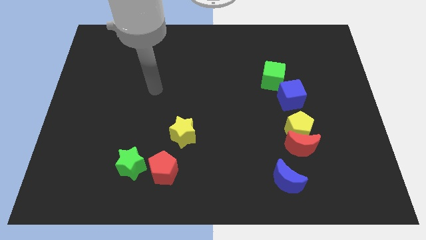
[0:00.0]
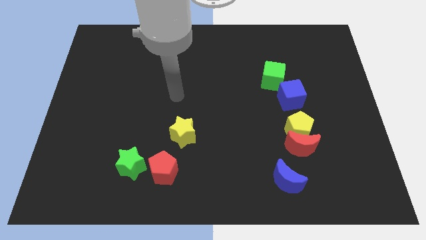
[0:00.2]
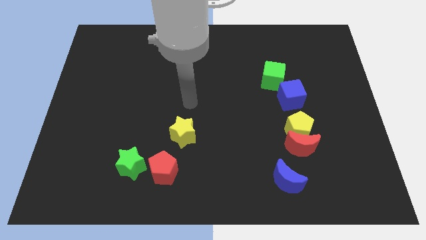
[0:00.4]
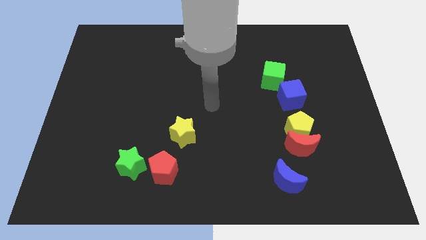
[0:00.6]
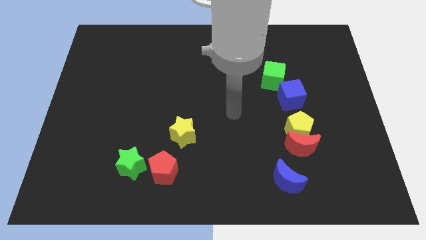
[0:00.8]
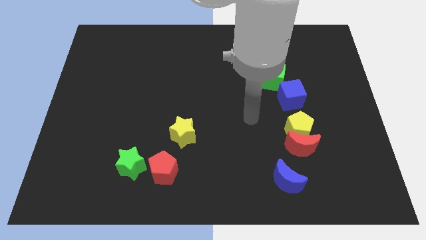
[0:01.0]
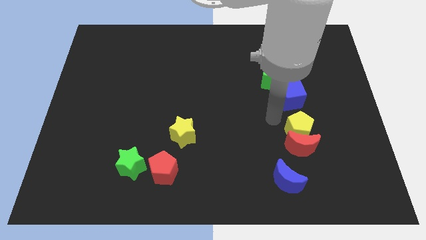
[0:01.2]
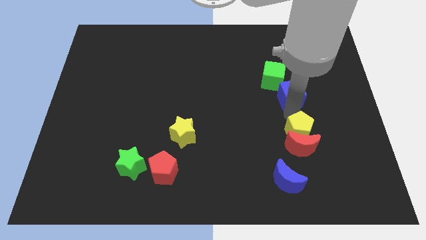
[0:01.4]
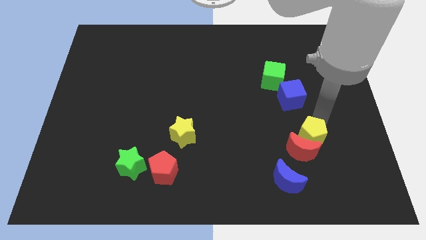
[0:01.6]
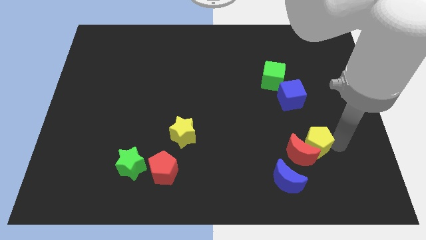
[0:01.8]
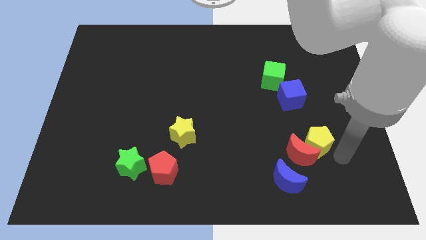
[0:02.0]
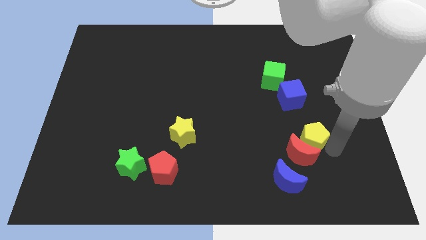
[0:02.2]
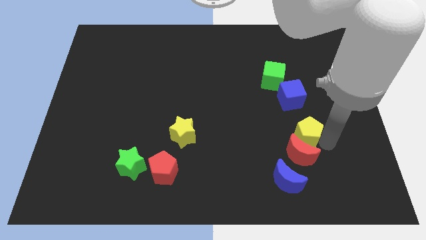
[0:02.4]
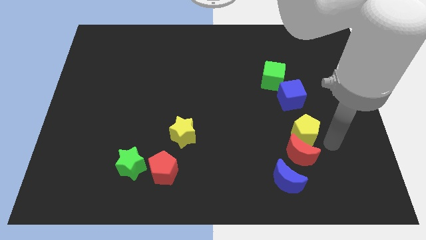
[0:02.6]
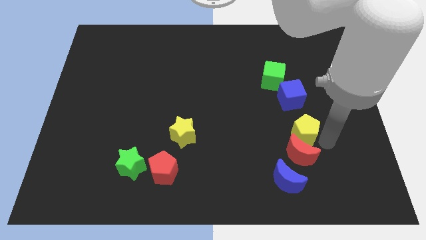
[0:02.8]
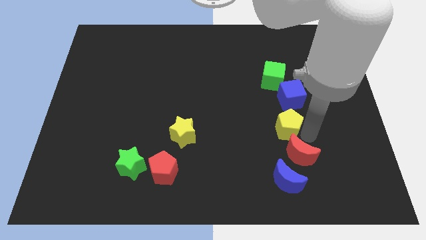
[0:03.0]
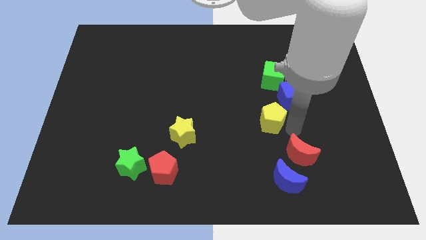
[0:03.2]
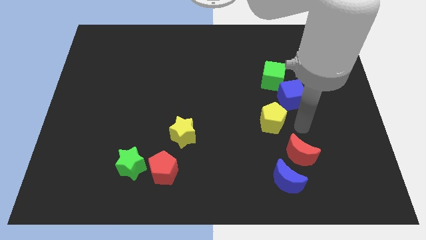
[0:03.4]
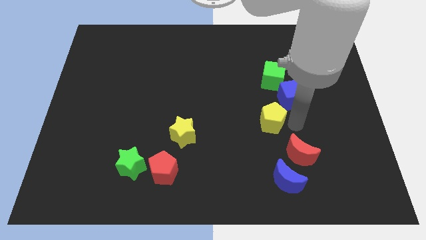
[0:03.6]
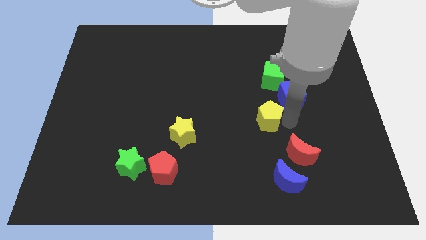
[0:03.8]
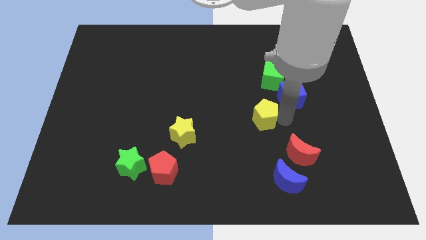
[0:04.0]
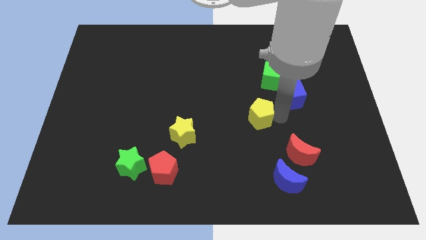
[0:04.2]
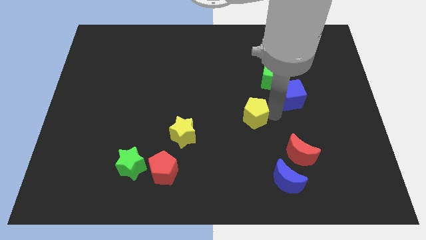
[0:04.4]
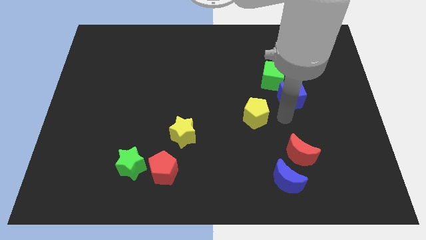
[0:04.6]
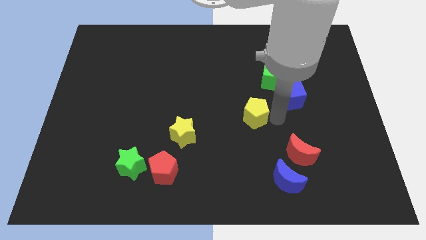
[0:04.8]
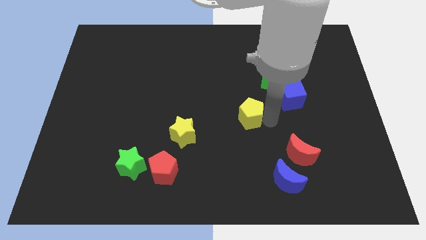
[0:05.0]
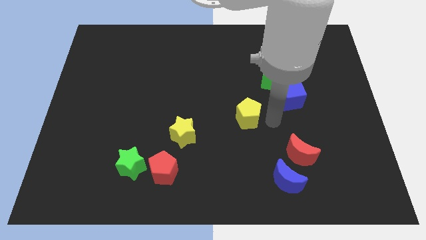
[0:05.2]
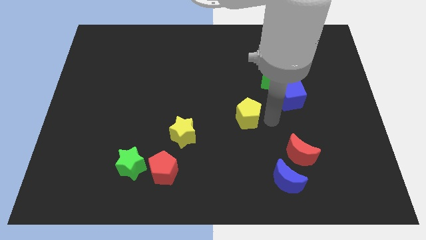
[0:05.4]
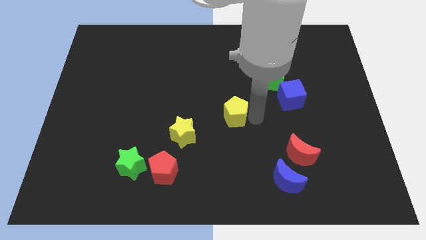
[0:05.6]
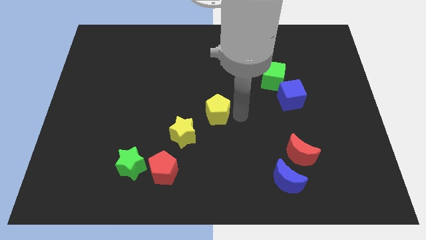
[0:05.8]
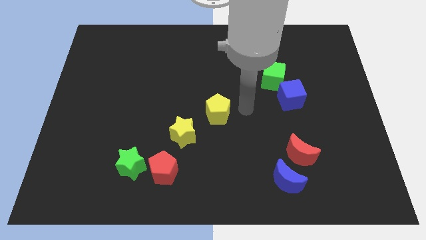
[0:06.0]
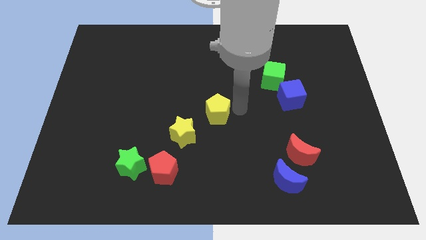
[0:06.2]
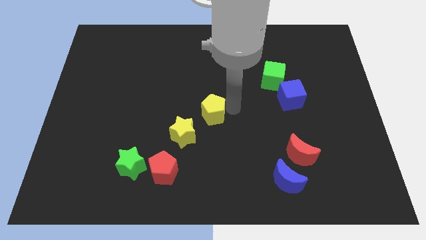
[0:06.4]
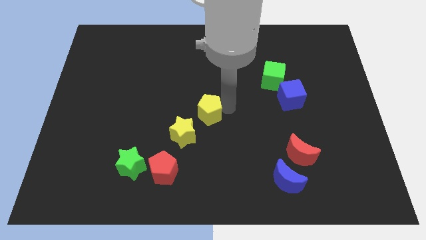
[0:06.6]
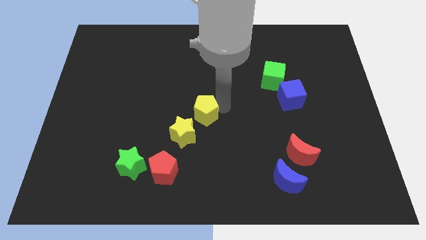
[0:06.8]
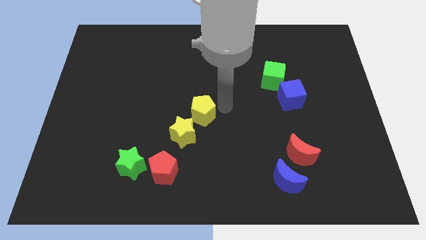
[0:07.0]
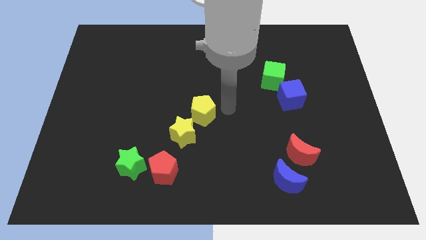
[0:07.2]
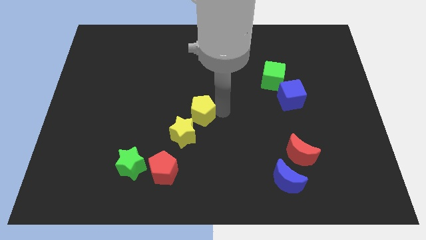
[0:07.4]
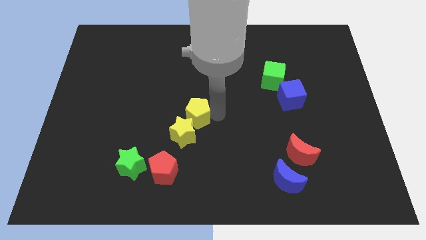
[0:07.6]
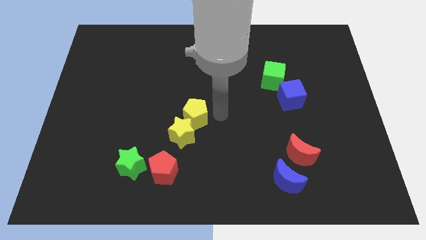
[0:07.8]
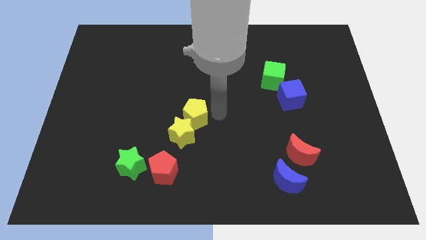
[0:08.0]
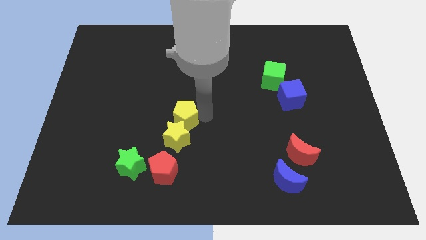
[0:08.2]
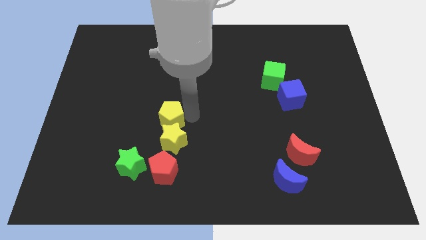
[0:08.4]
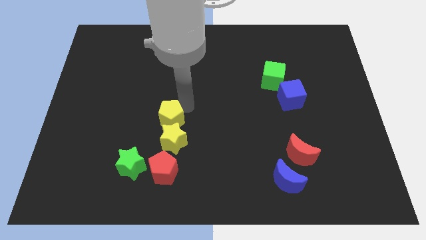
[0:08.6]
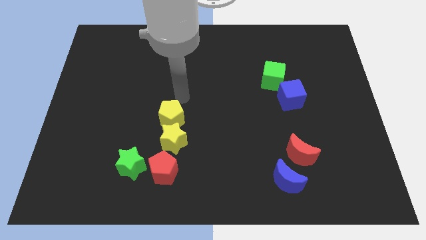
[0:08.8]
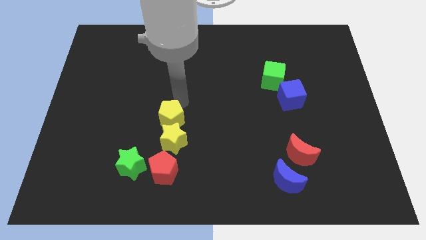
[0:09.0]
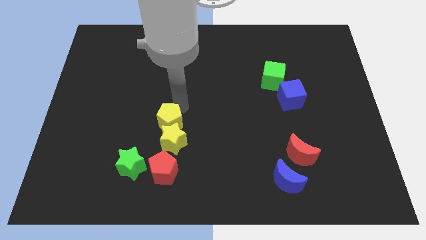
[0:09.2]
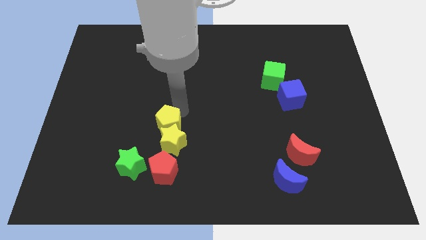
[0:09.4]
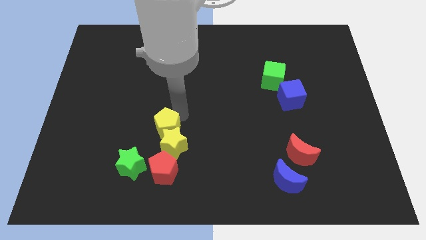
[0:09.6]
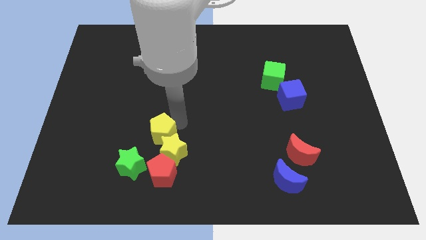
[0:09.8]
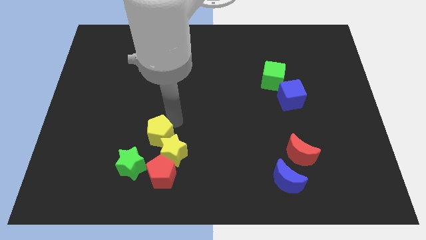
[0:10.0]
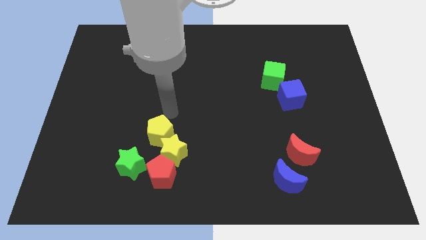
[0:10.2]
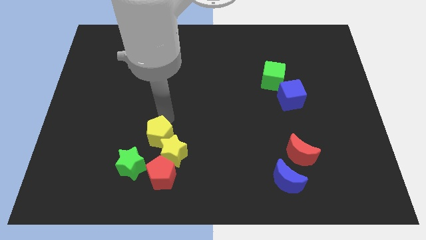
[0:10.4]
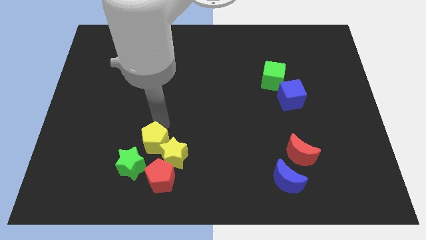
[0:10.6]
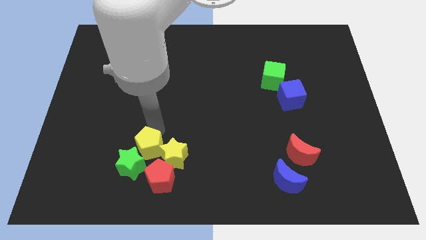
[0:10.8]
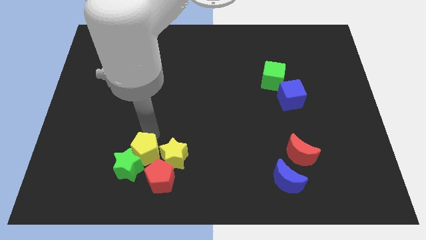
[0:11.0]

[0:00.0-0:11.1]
put the yellow pentagon to the bottom left side of the yellow star

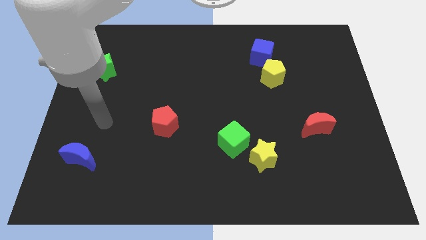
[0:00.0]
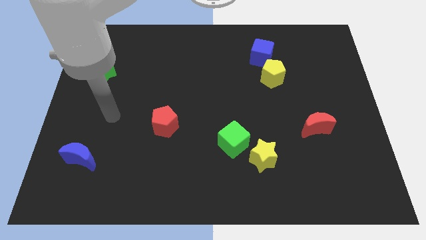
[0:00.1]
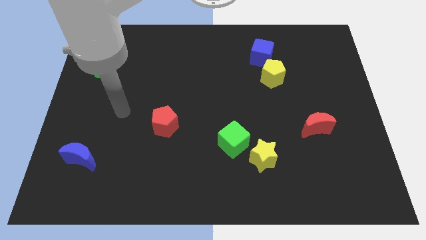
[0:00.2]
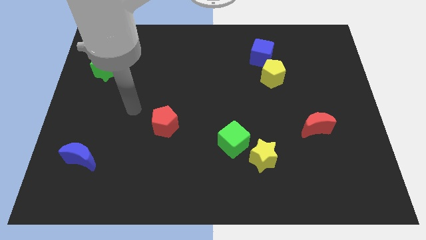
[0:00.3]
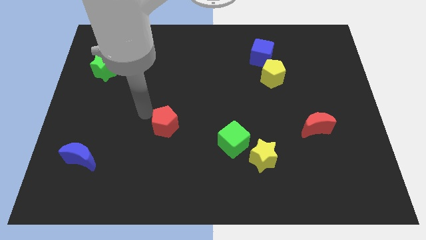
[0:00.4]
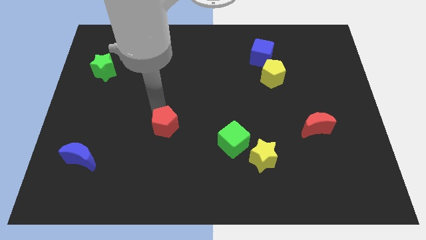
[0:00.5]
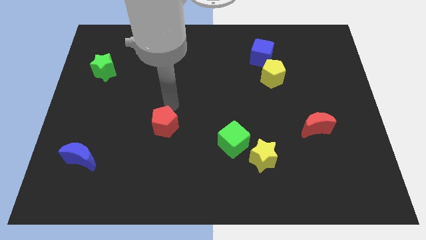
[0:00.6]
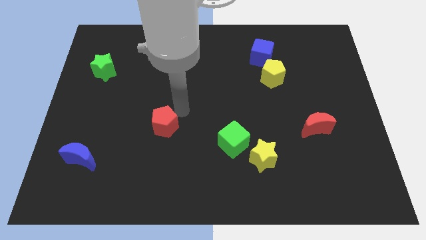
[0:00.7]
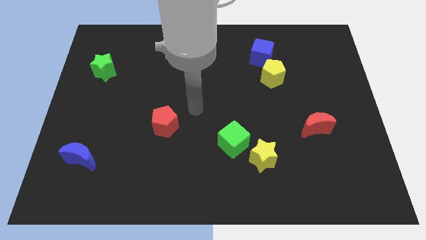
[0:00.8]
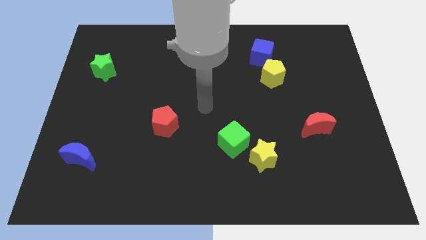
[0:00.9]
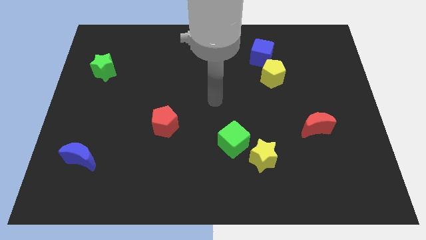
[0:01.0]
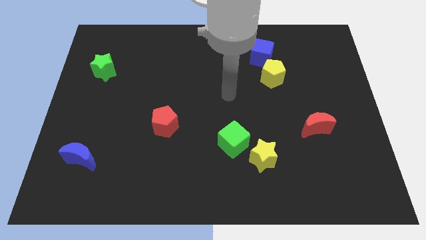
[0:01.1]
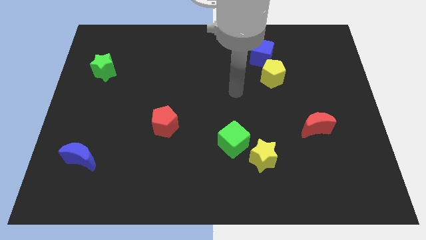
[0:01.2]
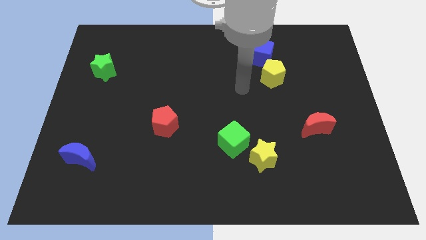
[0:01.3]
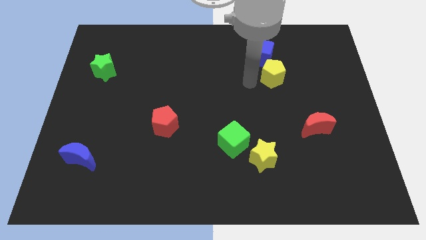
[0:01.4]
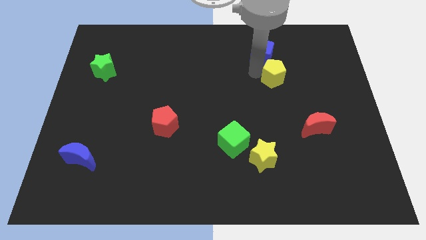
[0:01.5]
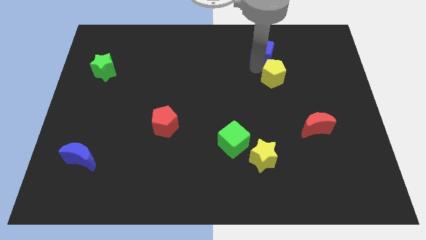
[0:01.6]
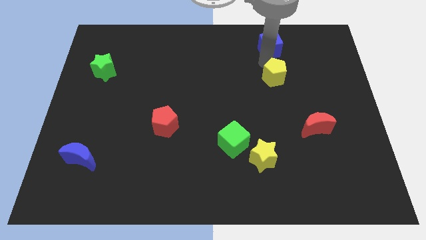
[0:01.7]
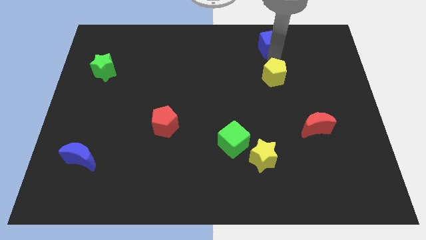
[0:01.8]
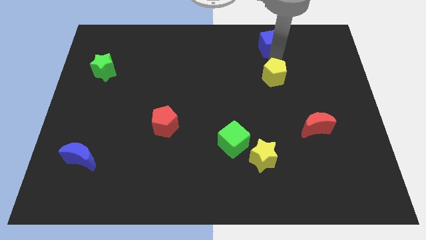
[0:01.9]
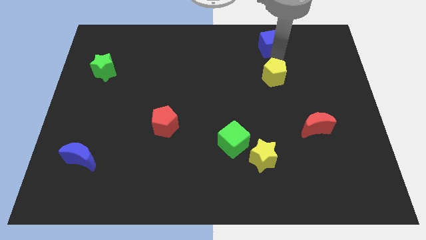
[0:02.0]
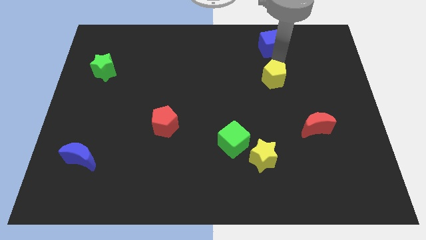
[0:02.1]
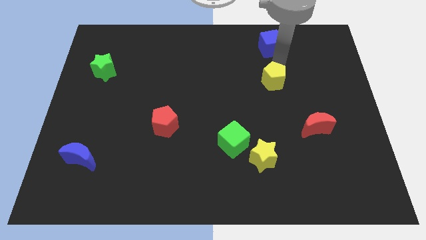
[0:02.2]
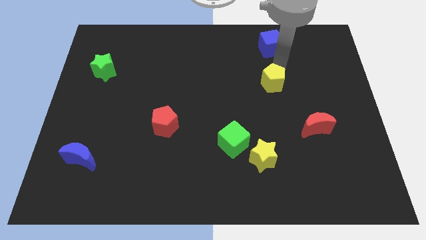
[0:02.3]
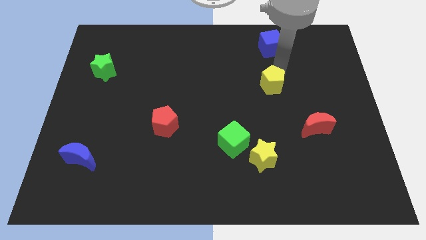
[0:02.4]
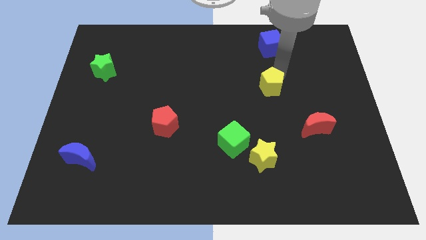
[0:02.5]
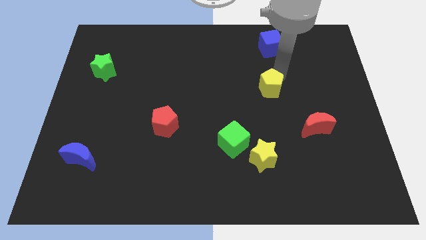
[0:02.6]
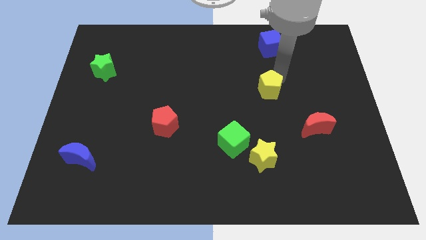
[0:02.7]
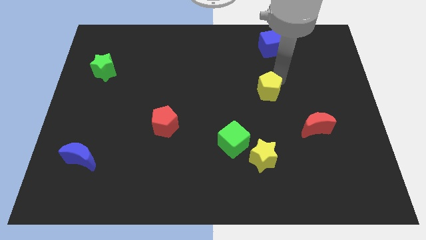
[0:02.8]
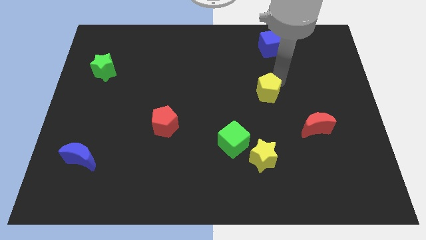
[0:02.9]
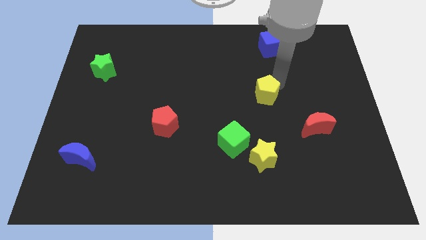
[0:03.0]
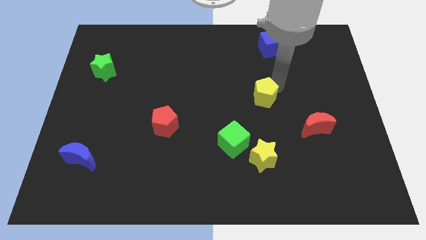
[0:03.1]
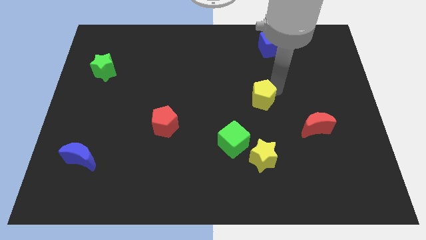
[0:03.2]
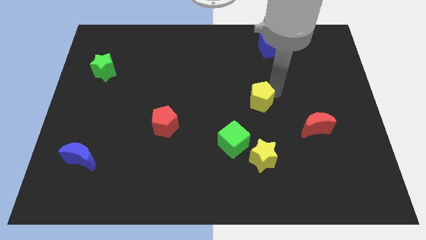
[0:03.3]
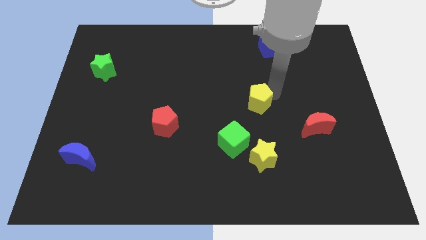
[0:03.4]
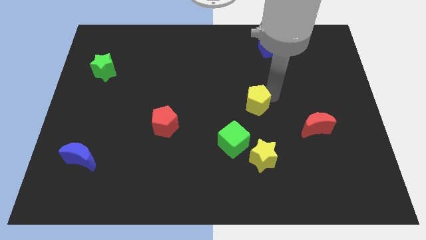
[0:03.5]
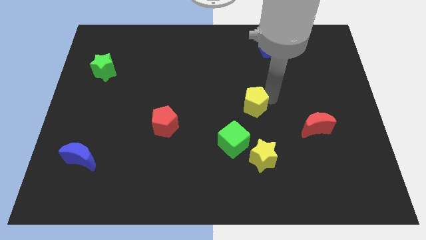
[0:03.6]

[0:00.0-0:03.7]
push the yellow pentagon to the top right of the green cube
